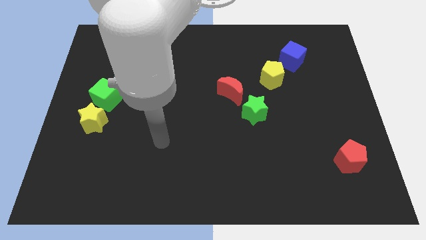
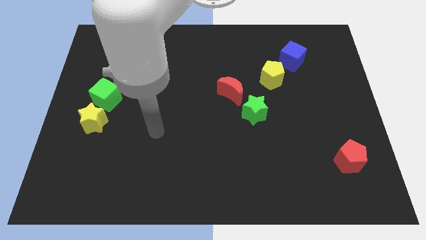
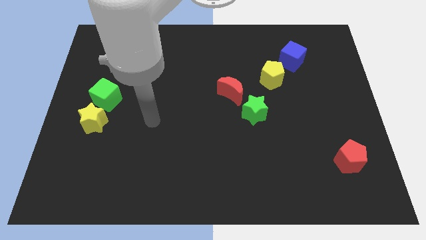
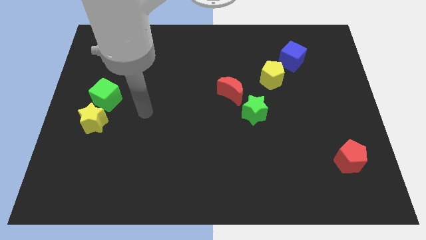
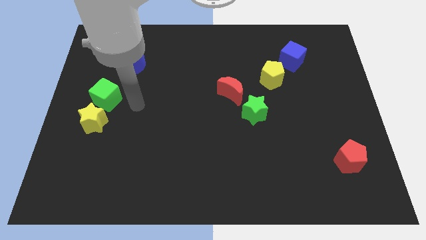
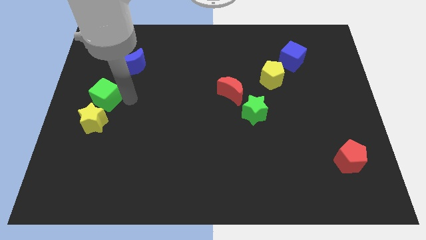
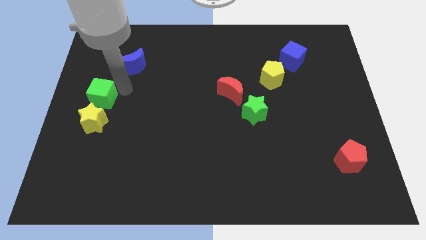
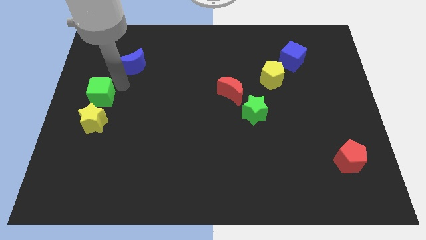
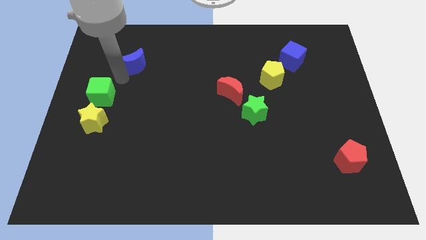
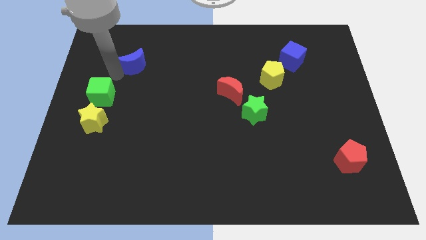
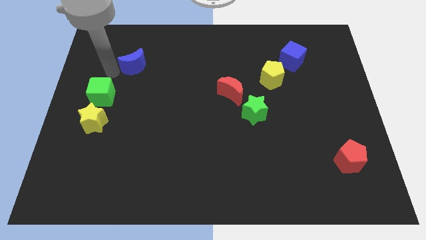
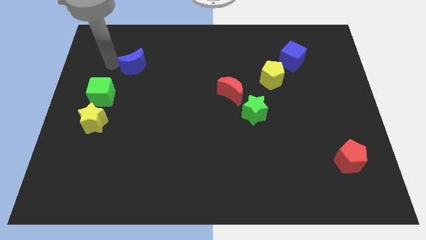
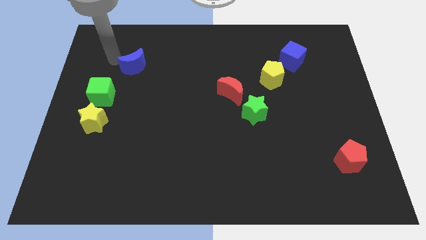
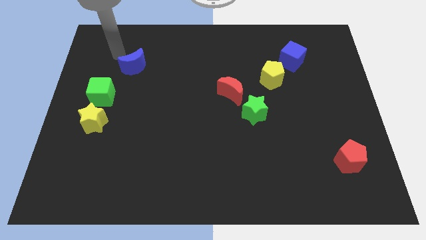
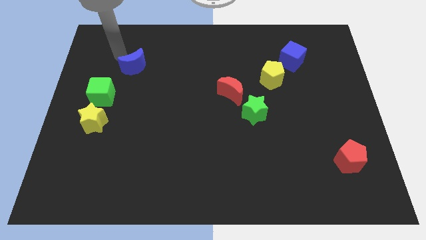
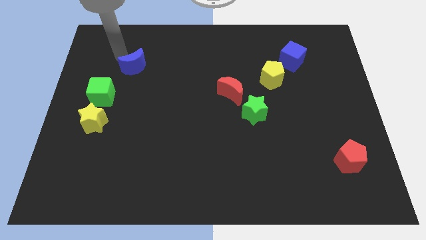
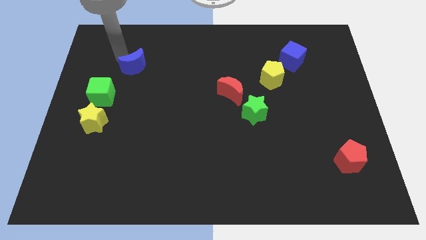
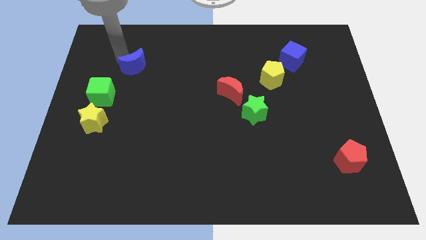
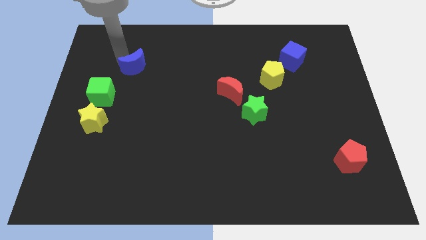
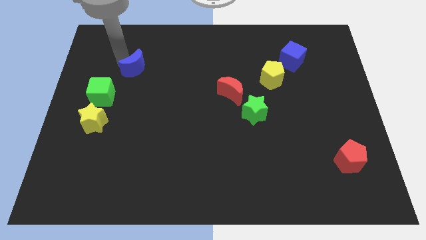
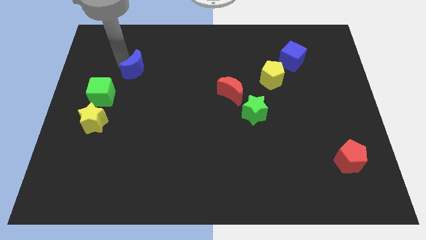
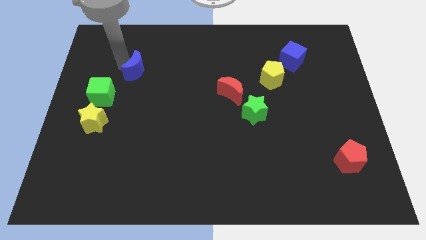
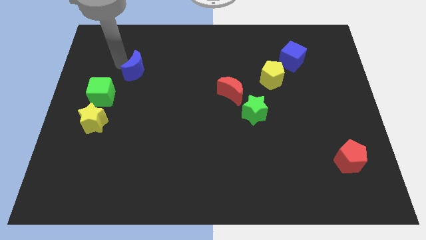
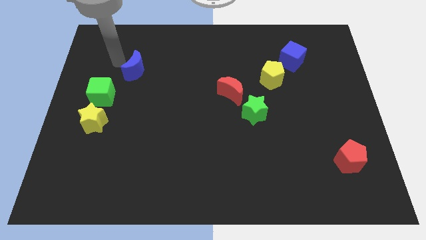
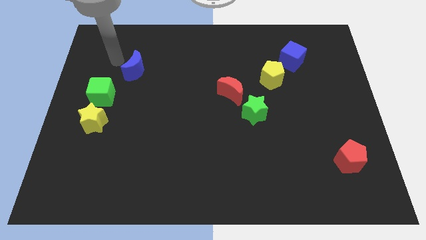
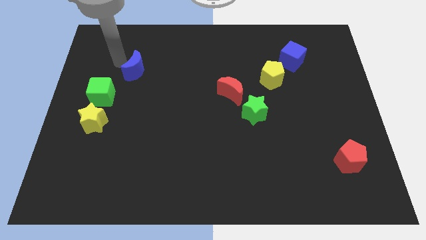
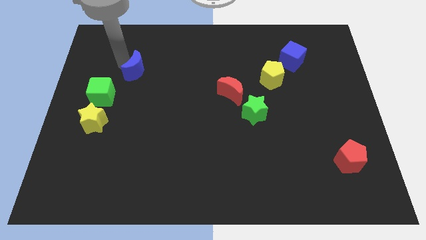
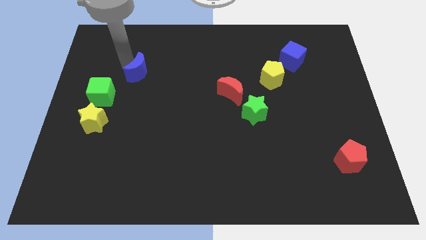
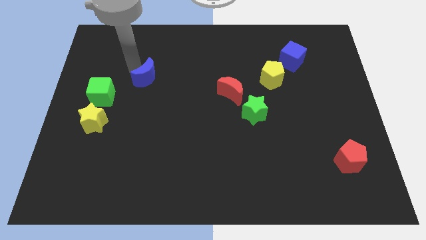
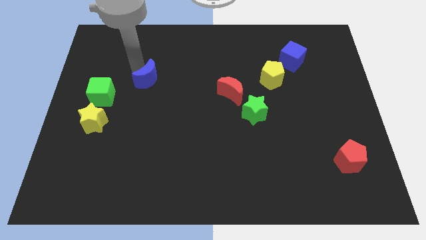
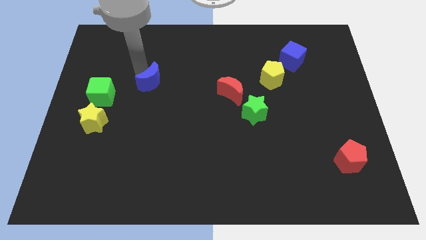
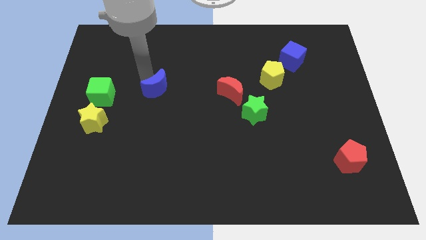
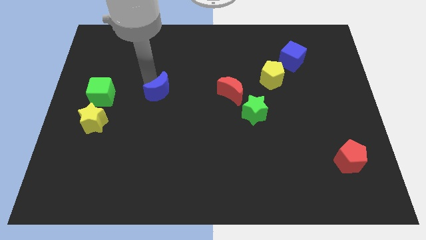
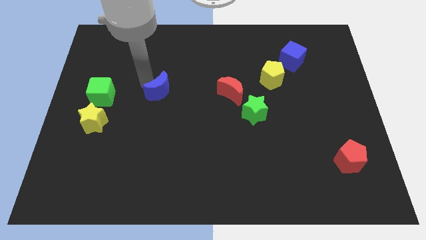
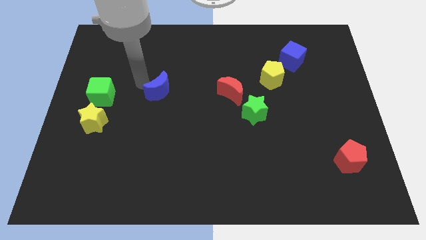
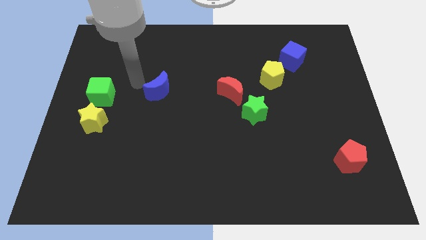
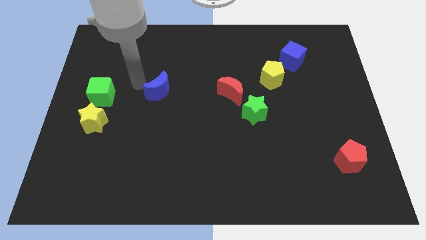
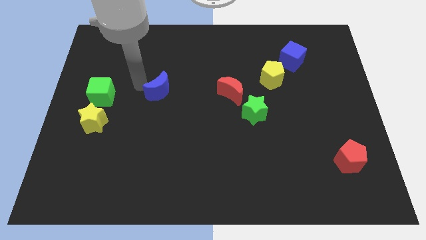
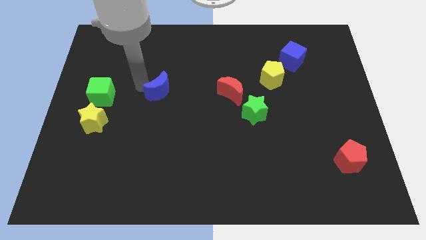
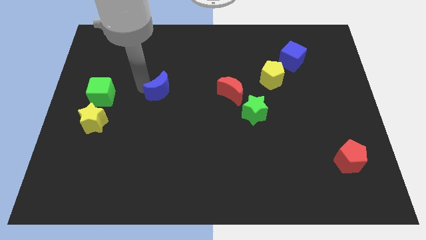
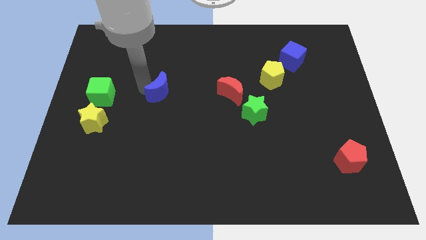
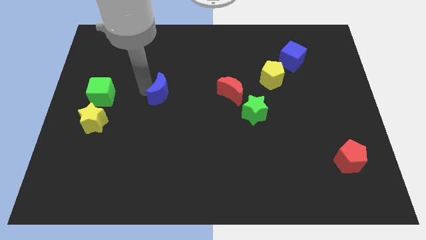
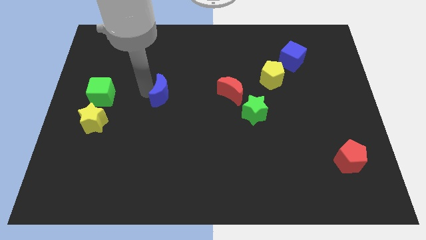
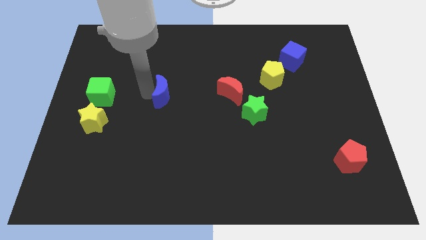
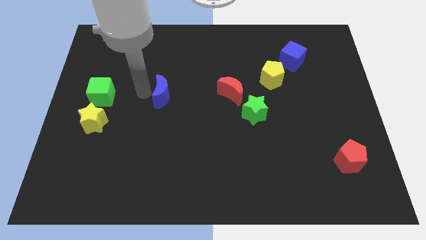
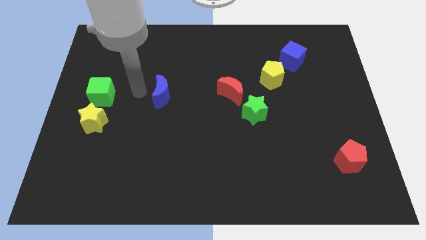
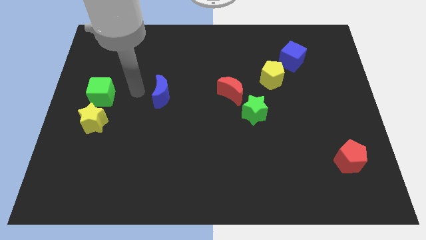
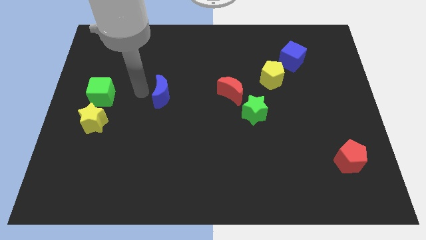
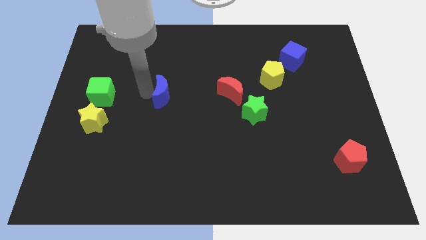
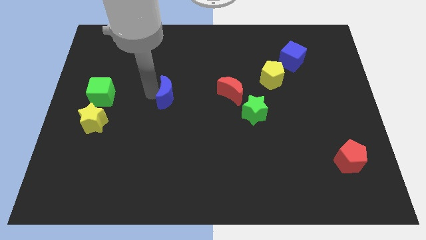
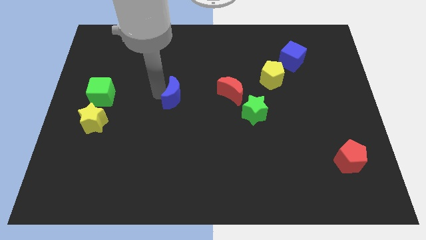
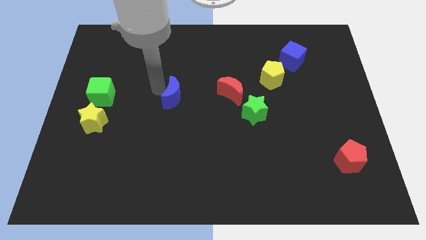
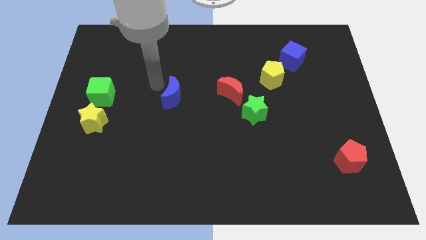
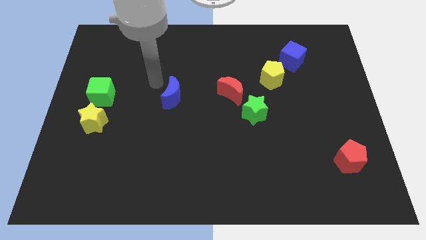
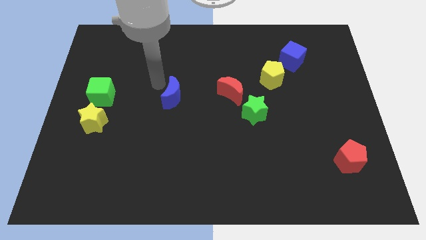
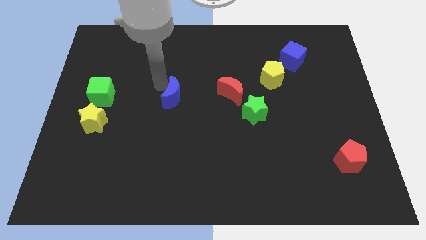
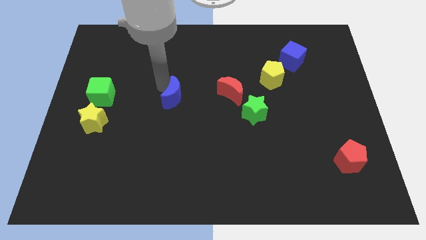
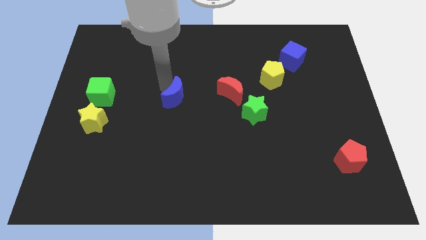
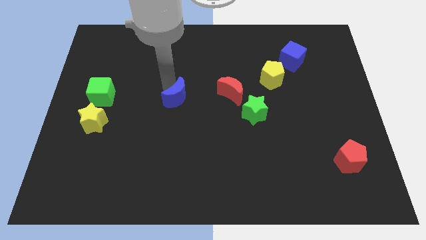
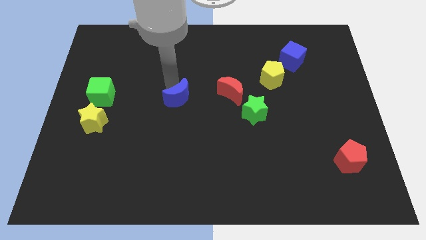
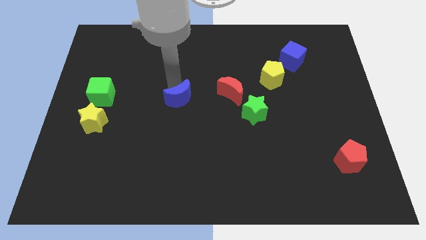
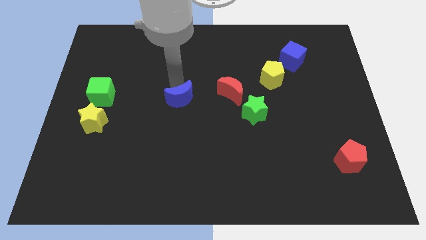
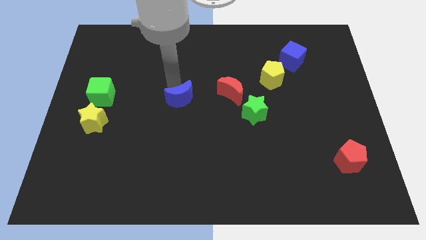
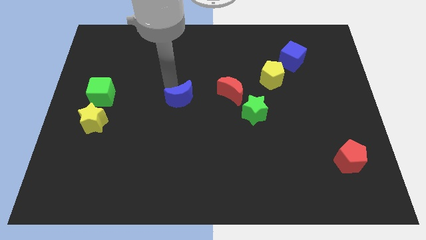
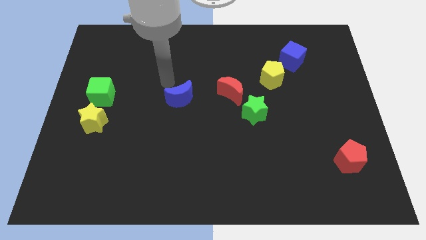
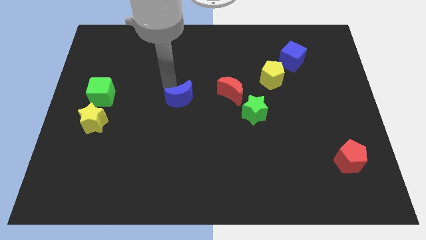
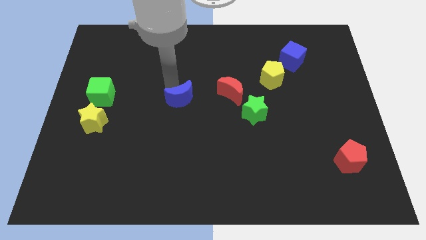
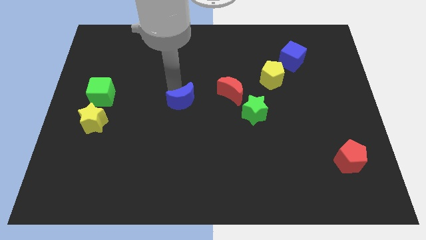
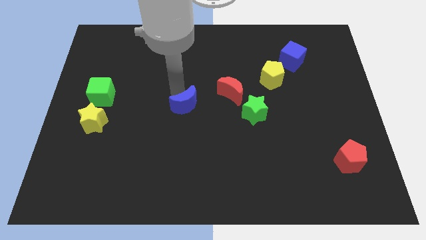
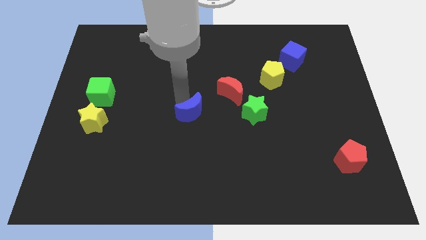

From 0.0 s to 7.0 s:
push the blue moon down and to the right diagonally

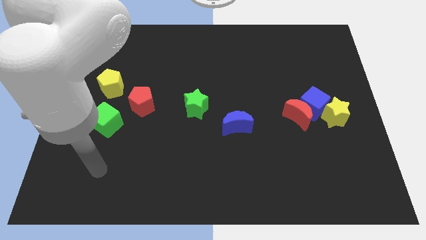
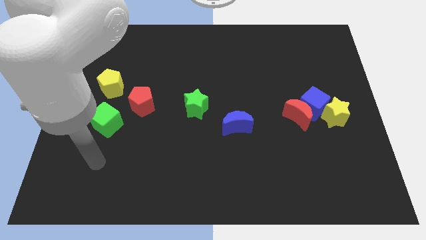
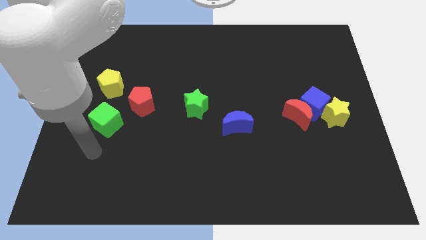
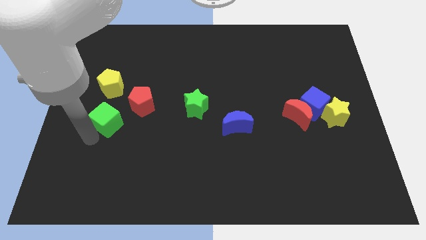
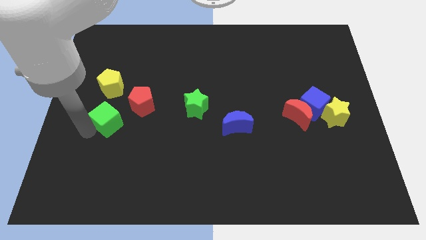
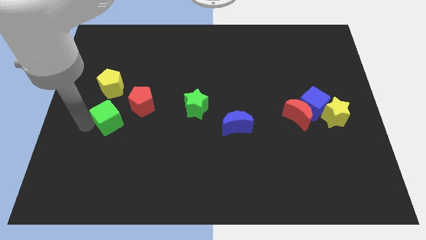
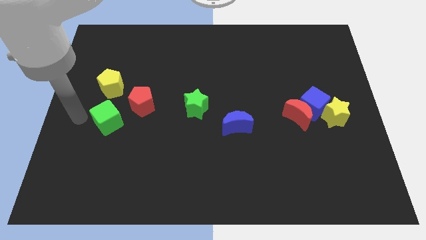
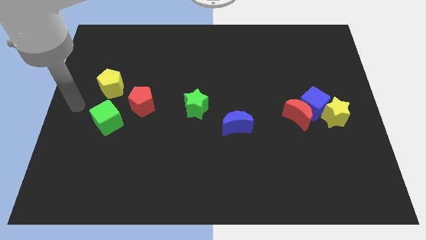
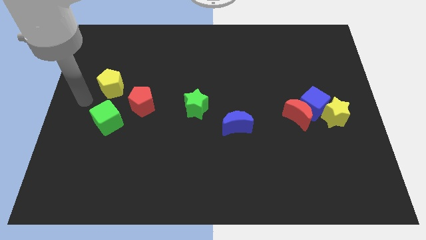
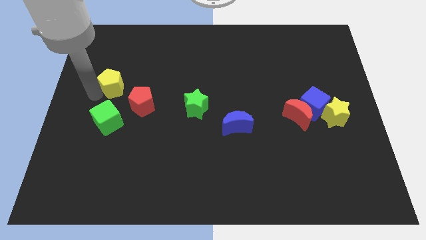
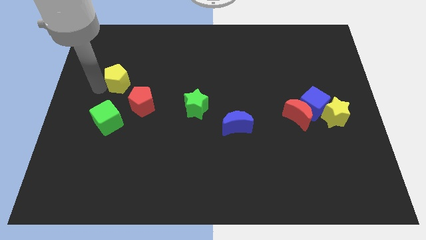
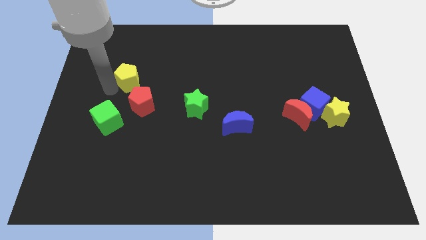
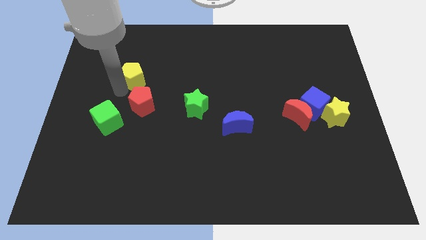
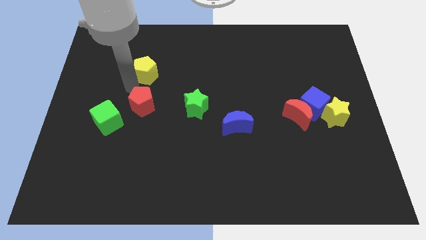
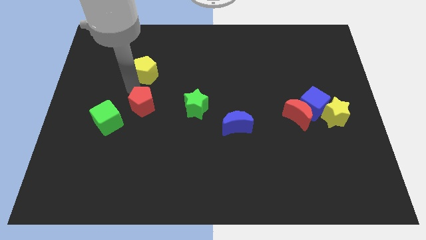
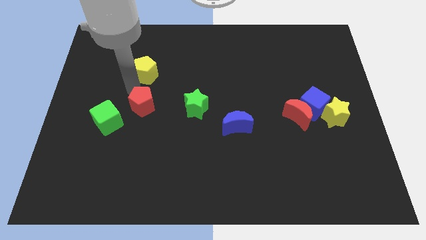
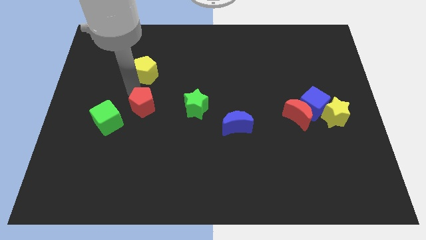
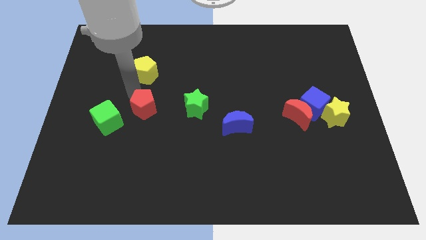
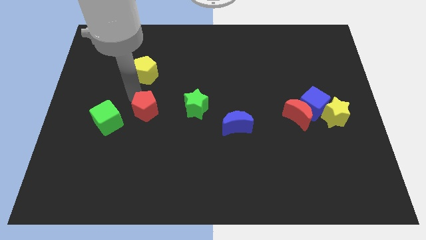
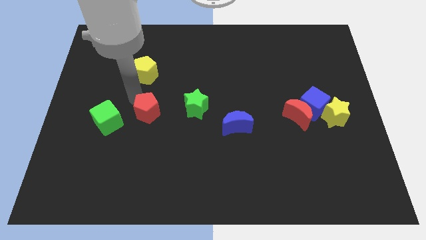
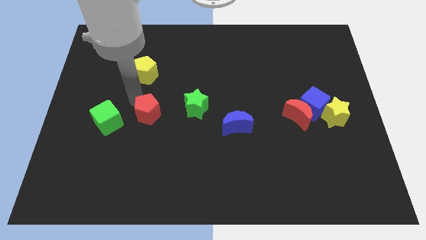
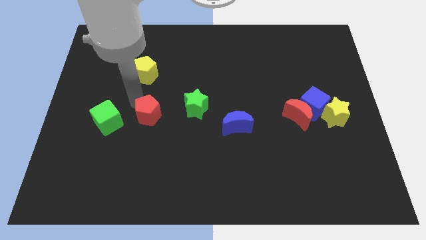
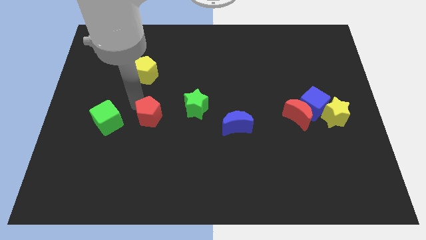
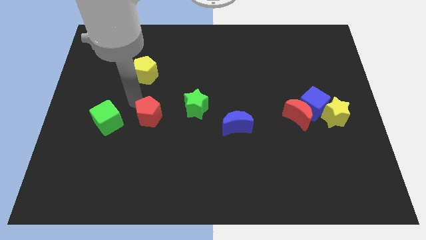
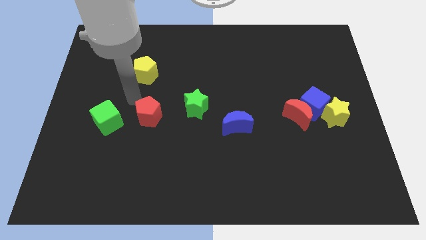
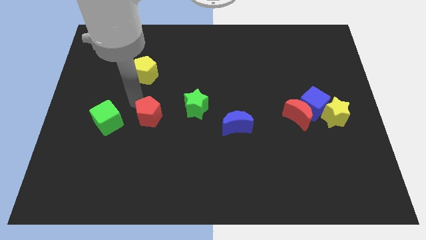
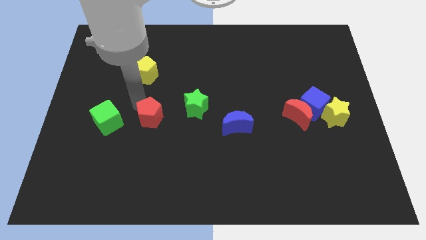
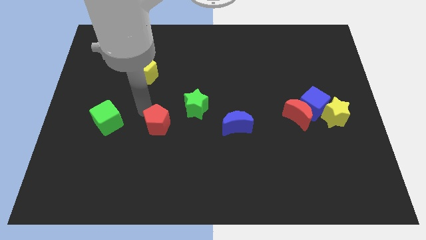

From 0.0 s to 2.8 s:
push the red pentagon a little bit diagonally downwards and to the right
